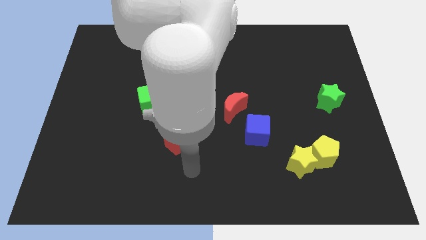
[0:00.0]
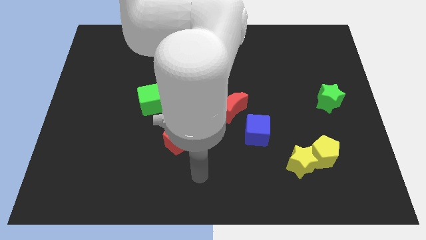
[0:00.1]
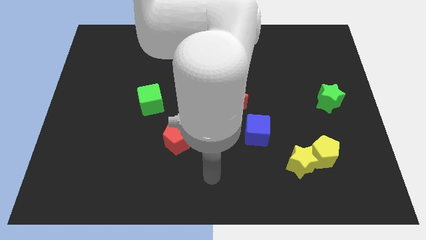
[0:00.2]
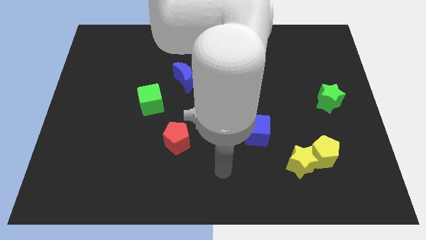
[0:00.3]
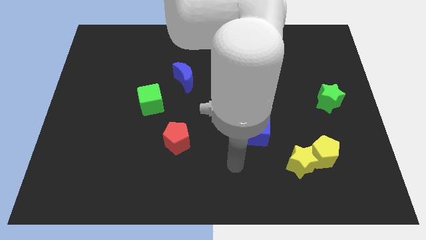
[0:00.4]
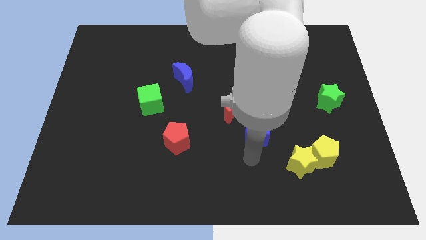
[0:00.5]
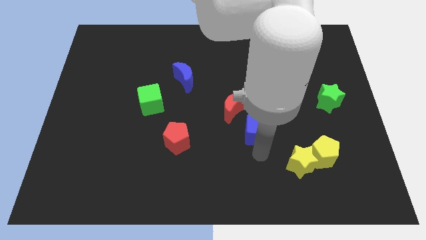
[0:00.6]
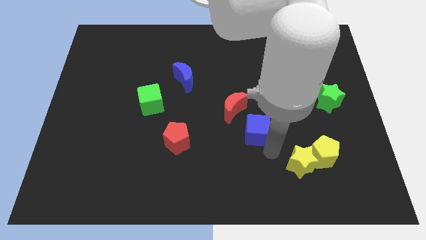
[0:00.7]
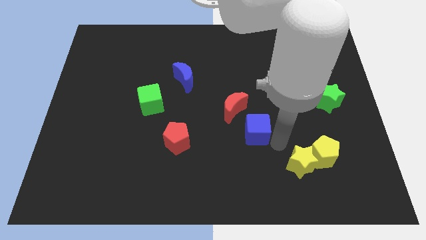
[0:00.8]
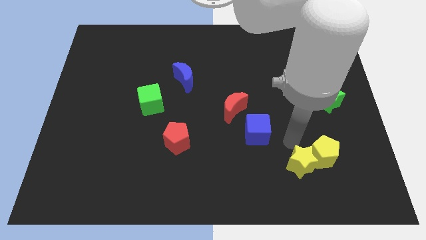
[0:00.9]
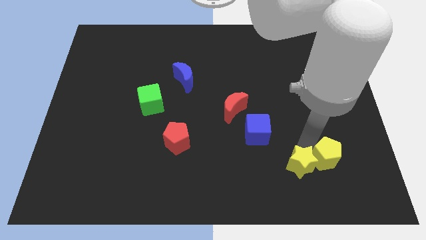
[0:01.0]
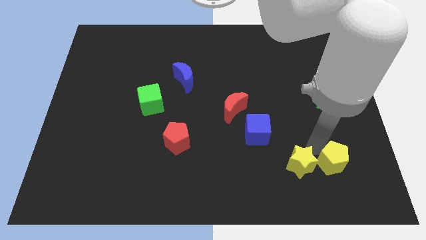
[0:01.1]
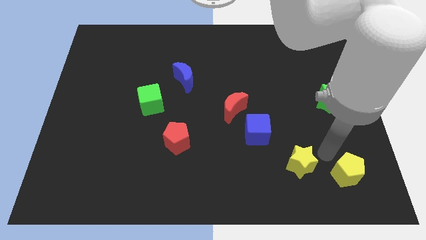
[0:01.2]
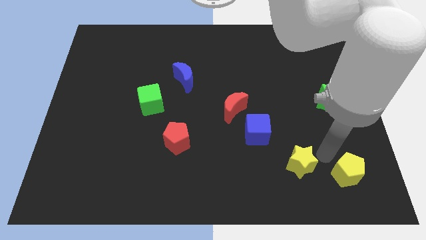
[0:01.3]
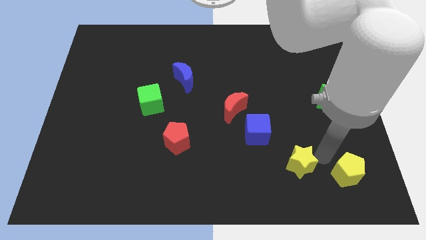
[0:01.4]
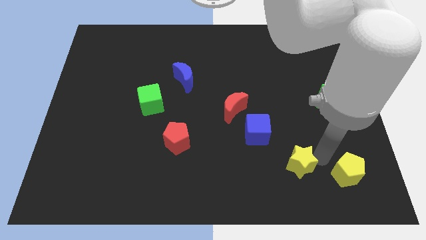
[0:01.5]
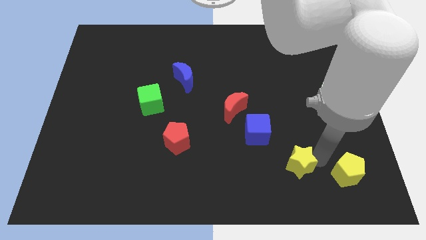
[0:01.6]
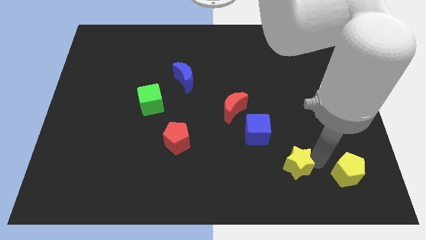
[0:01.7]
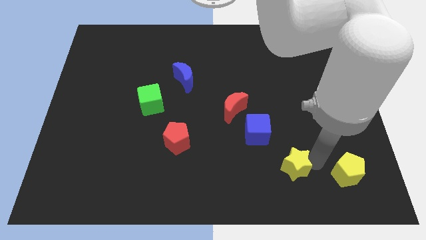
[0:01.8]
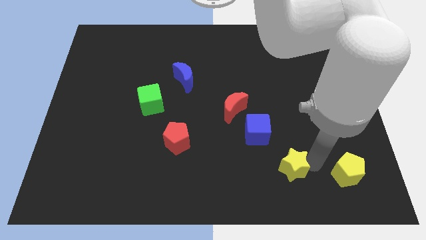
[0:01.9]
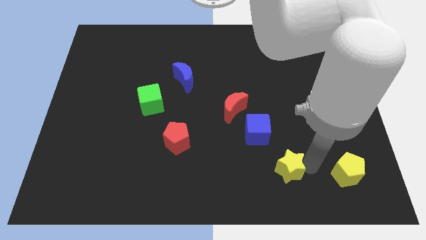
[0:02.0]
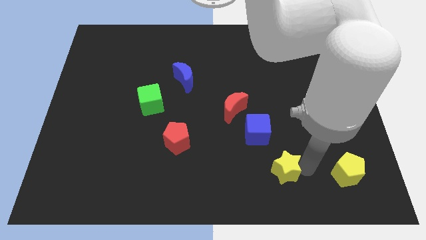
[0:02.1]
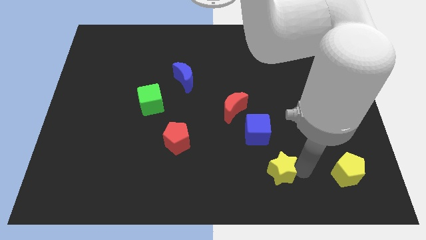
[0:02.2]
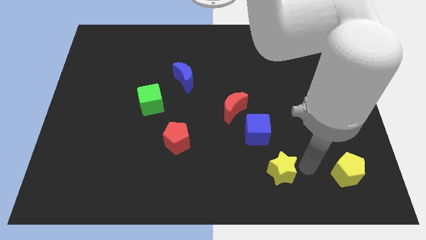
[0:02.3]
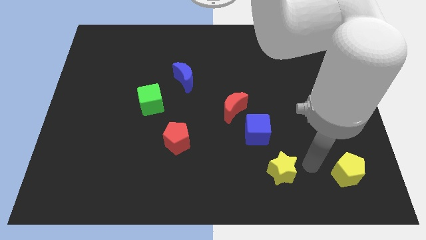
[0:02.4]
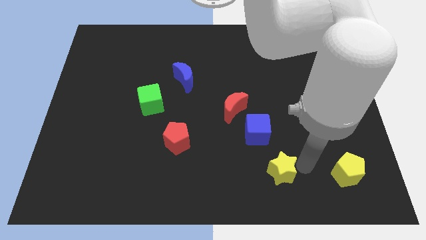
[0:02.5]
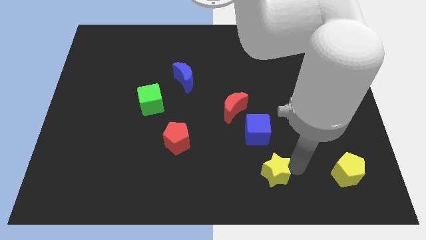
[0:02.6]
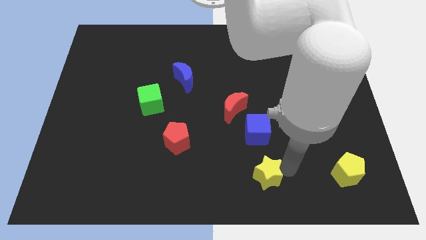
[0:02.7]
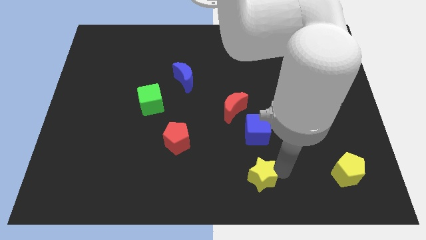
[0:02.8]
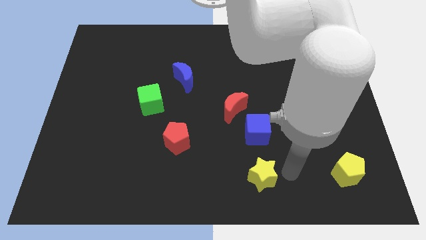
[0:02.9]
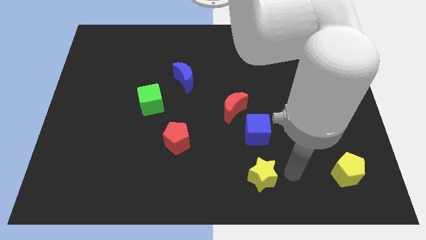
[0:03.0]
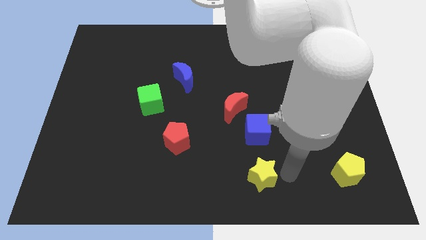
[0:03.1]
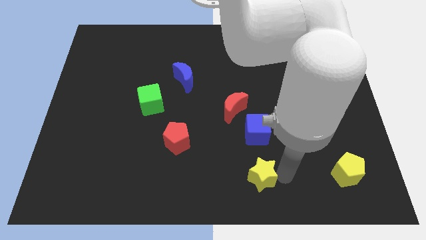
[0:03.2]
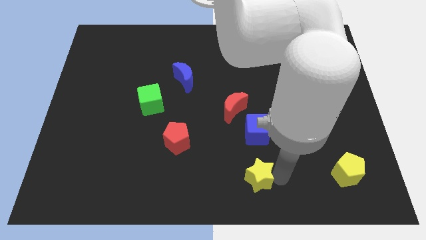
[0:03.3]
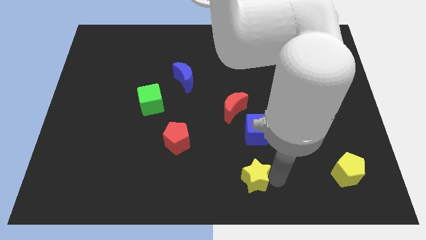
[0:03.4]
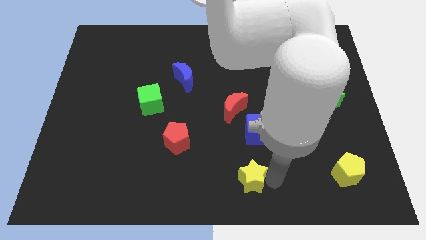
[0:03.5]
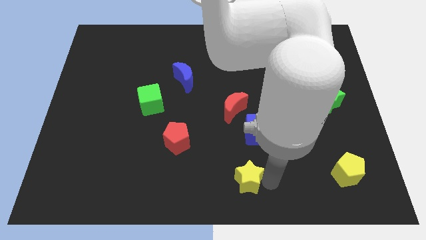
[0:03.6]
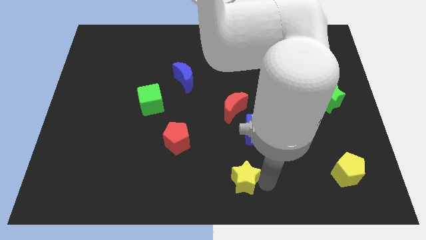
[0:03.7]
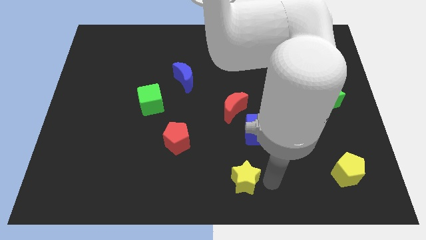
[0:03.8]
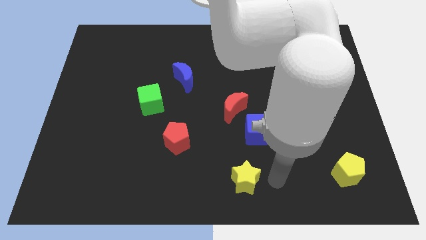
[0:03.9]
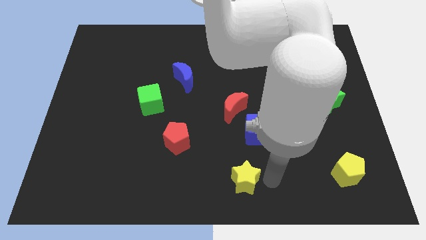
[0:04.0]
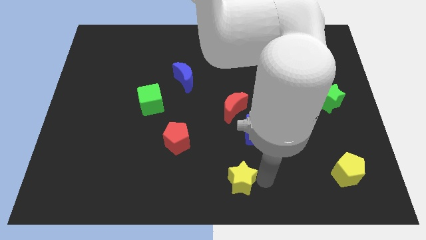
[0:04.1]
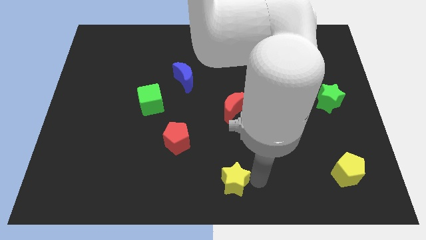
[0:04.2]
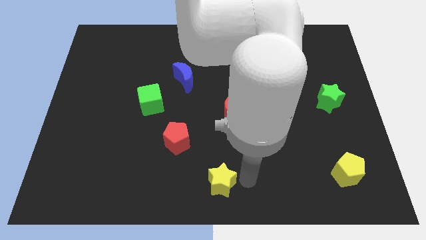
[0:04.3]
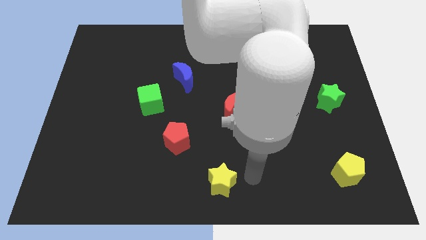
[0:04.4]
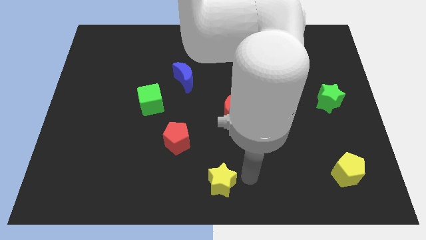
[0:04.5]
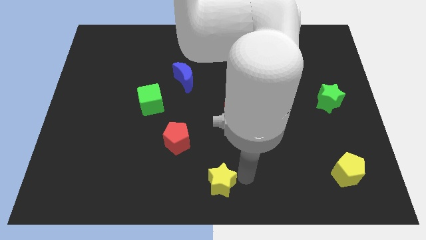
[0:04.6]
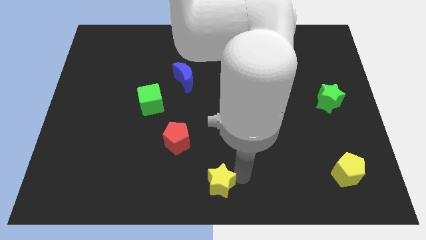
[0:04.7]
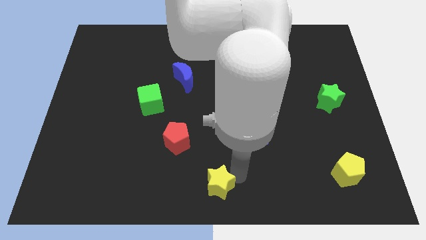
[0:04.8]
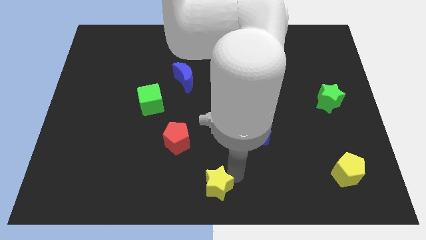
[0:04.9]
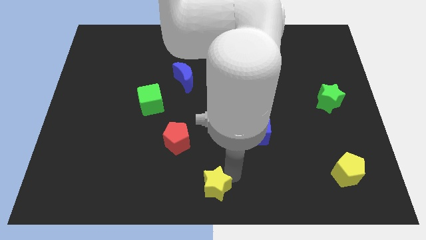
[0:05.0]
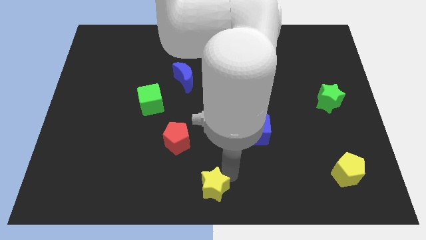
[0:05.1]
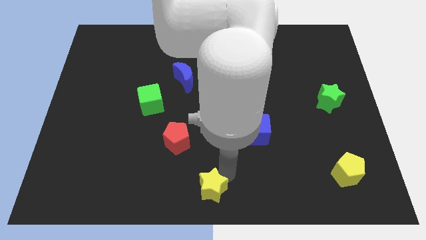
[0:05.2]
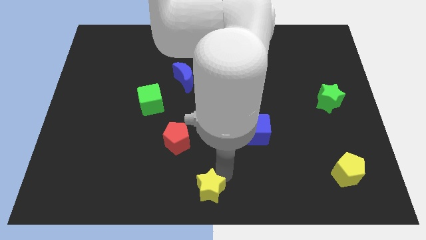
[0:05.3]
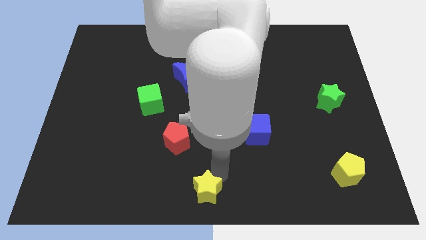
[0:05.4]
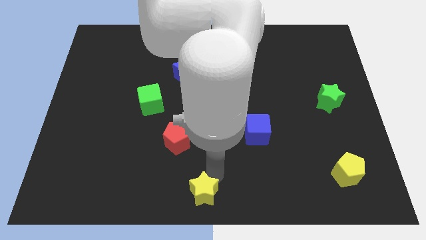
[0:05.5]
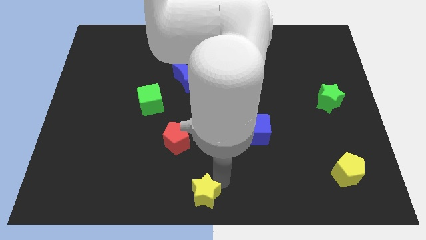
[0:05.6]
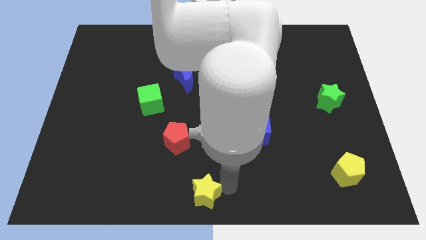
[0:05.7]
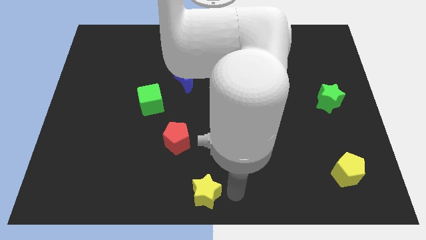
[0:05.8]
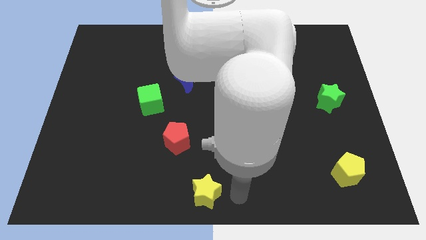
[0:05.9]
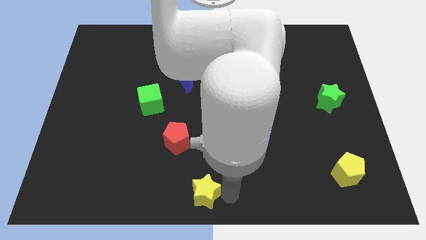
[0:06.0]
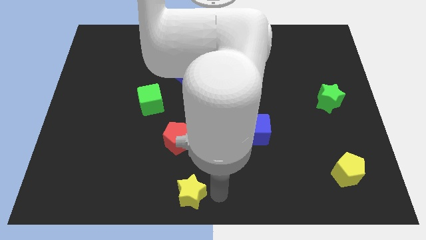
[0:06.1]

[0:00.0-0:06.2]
move the yellow star to the left

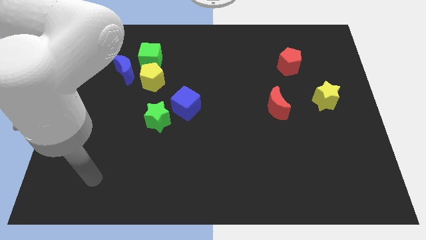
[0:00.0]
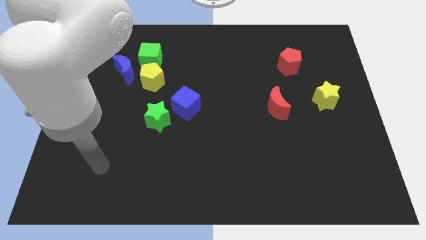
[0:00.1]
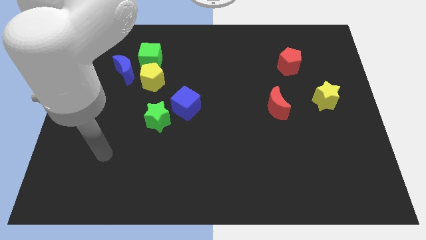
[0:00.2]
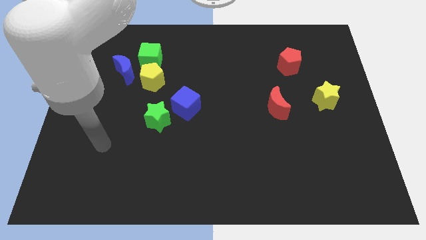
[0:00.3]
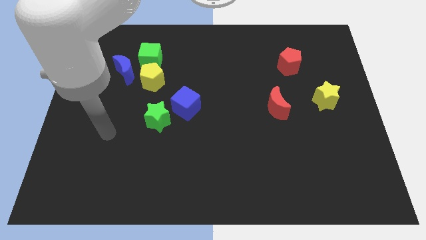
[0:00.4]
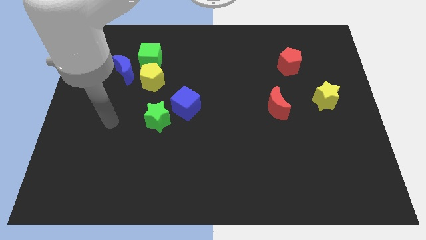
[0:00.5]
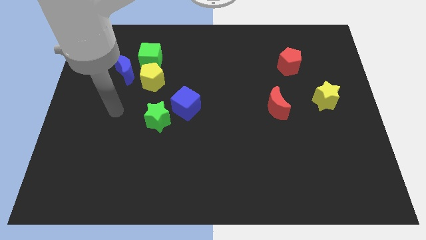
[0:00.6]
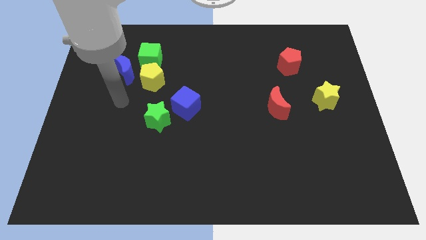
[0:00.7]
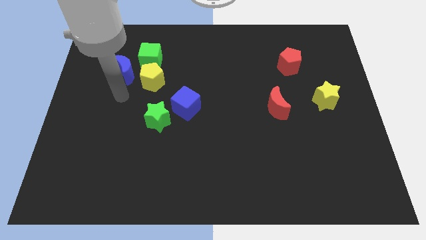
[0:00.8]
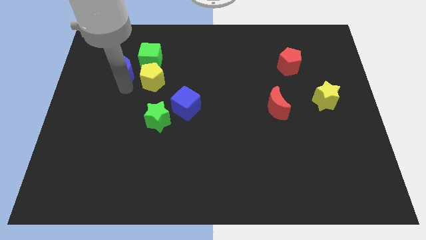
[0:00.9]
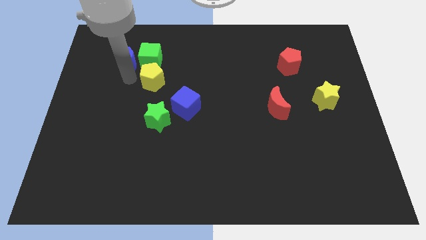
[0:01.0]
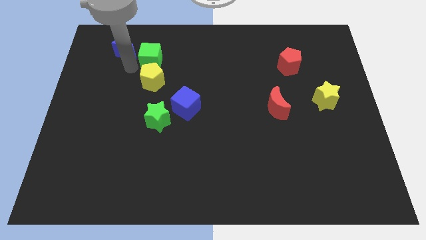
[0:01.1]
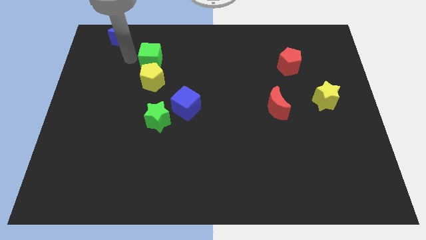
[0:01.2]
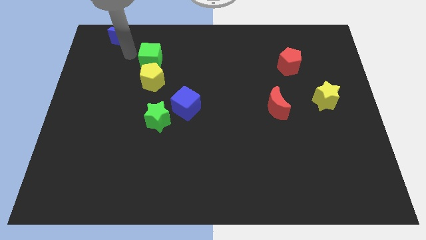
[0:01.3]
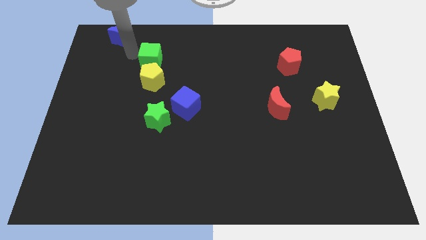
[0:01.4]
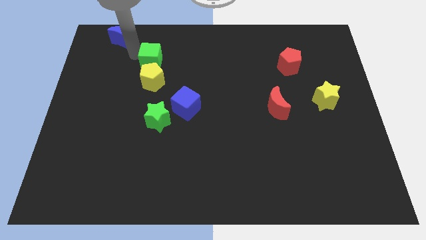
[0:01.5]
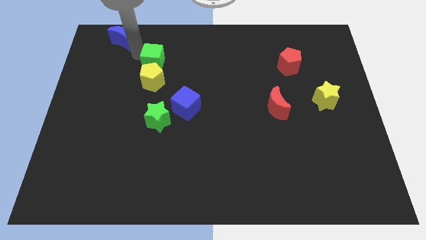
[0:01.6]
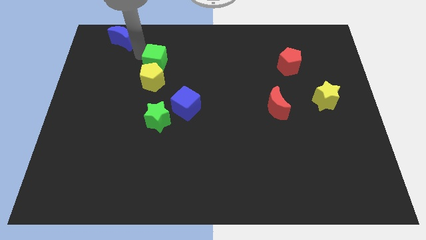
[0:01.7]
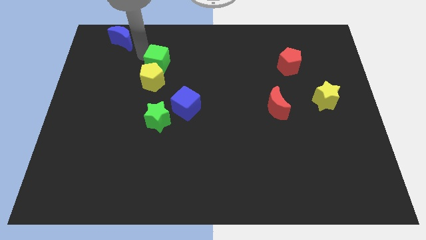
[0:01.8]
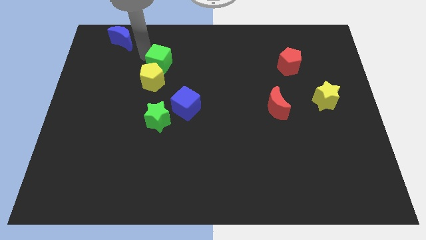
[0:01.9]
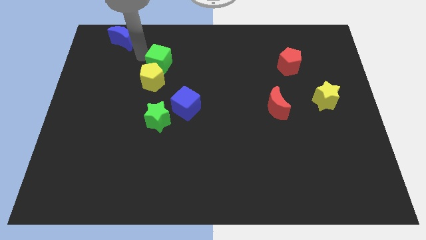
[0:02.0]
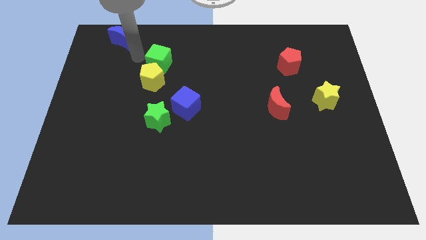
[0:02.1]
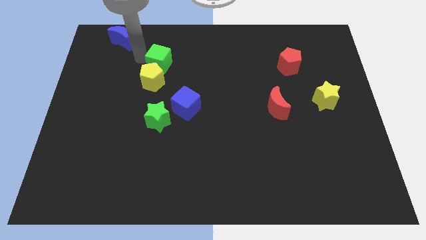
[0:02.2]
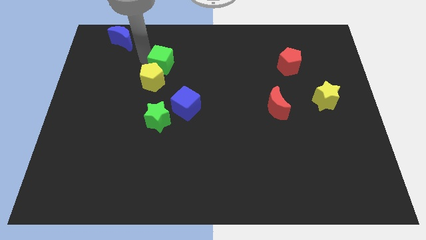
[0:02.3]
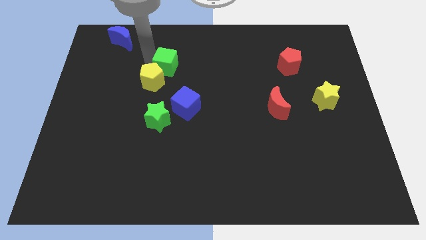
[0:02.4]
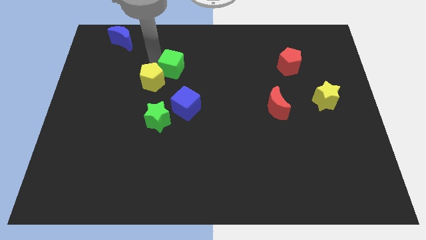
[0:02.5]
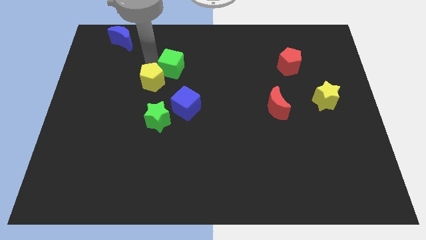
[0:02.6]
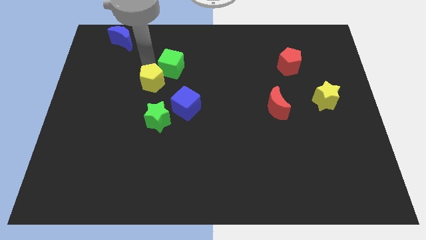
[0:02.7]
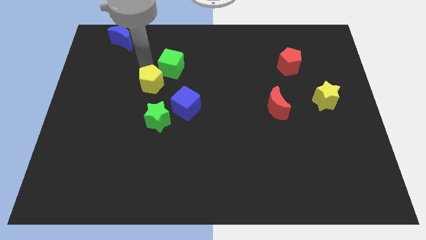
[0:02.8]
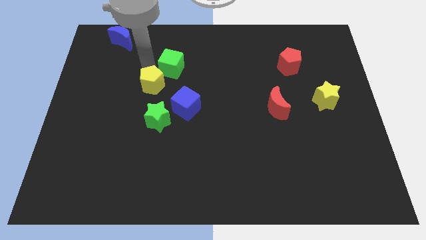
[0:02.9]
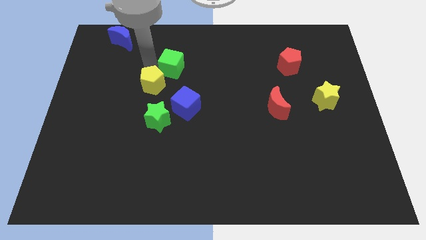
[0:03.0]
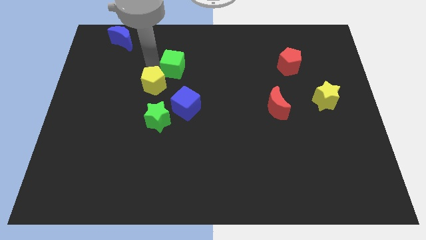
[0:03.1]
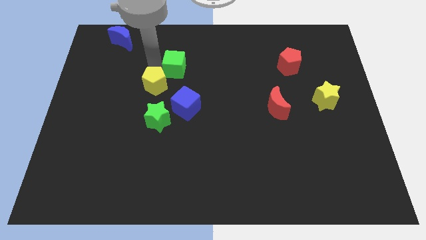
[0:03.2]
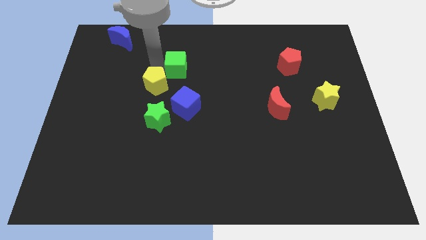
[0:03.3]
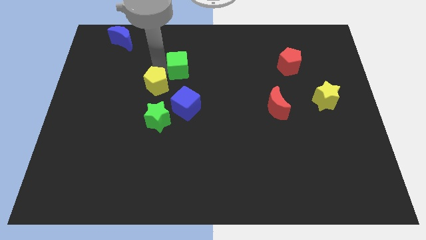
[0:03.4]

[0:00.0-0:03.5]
slightly slide the green cube right
